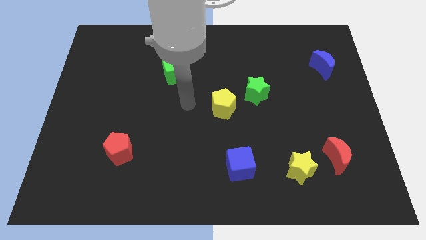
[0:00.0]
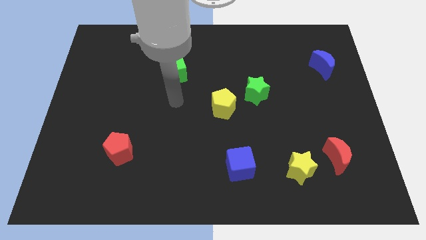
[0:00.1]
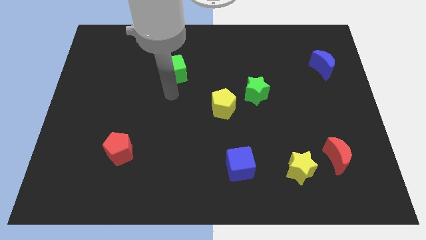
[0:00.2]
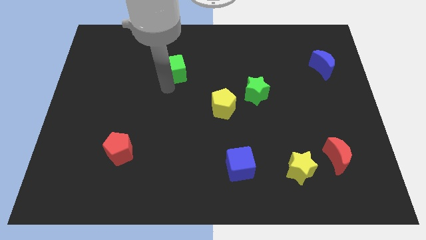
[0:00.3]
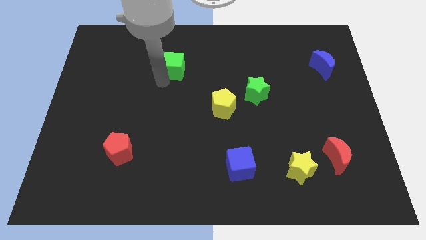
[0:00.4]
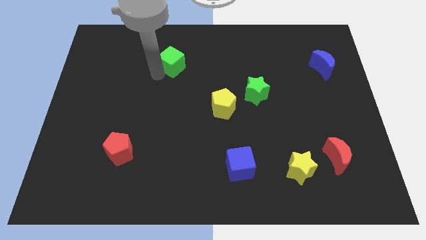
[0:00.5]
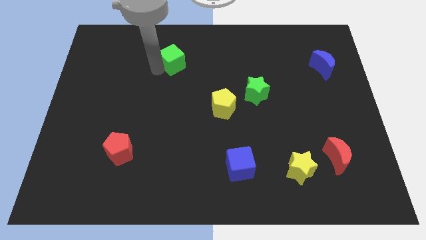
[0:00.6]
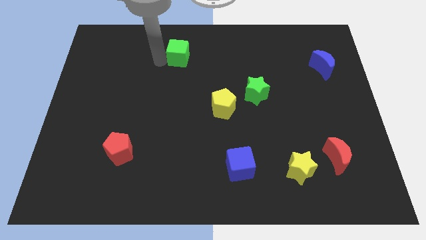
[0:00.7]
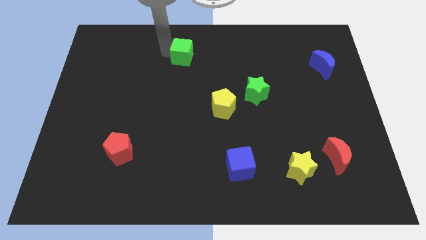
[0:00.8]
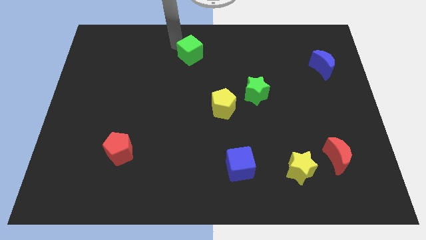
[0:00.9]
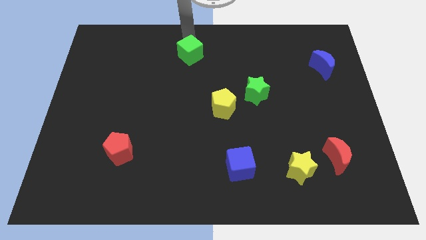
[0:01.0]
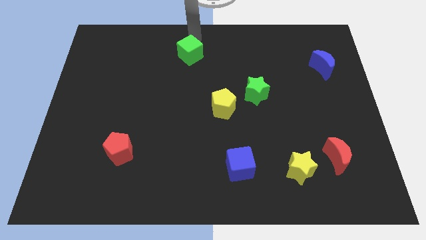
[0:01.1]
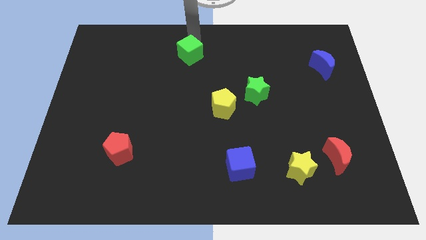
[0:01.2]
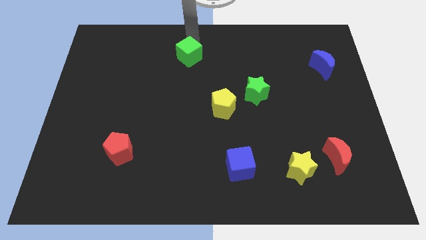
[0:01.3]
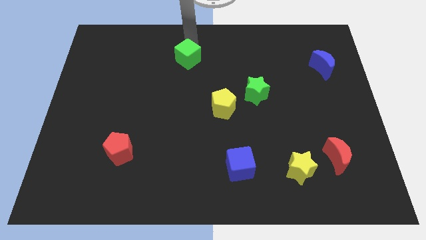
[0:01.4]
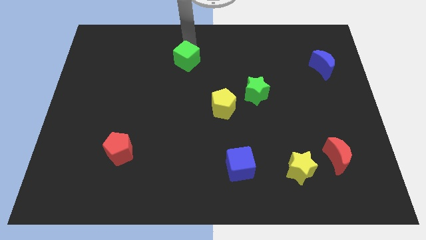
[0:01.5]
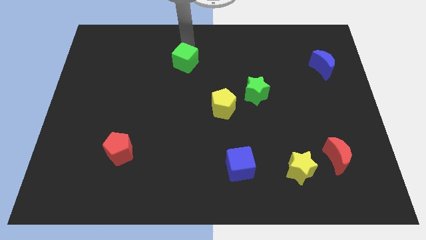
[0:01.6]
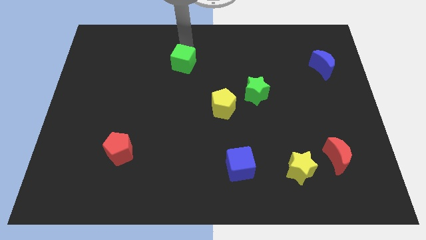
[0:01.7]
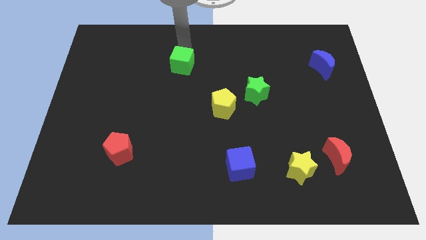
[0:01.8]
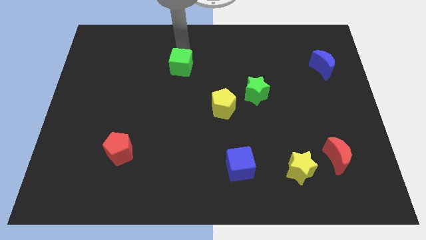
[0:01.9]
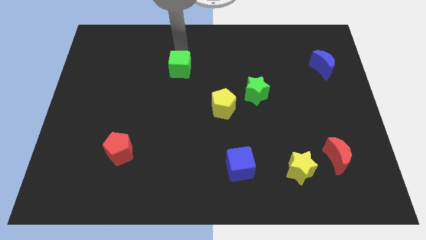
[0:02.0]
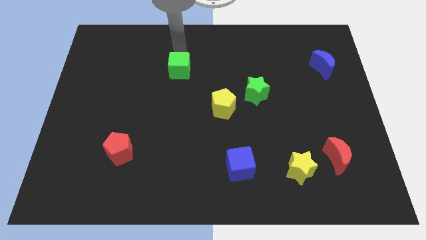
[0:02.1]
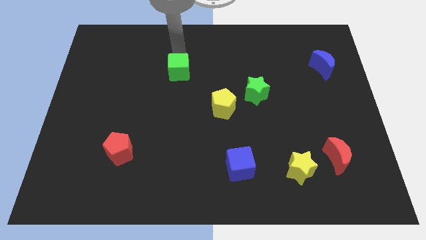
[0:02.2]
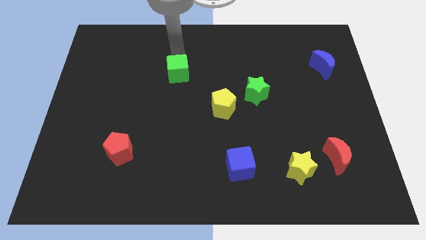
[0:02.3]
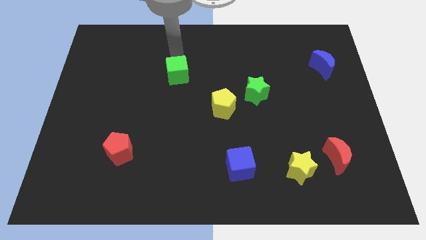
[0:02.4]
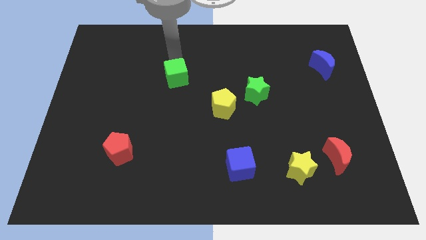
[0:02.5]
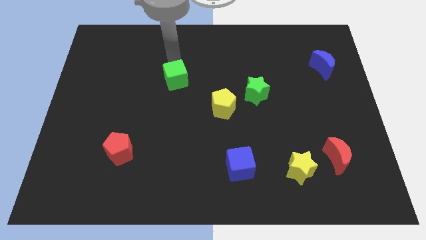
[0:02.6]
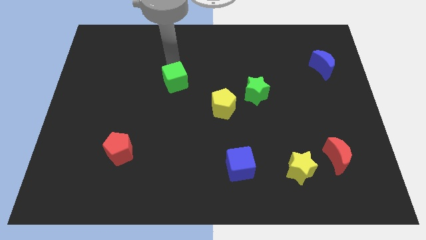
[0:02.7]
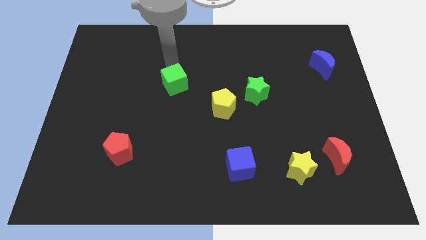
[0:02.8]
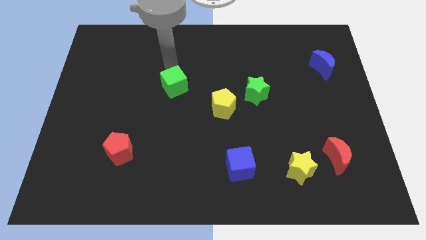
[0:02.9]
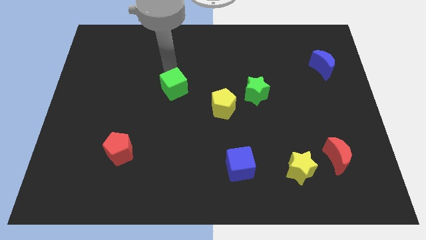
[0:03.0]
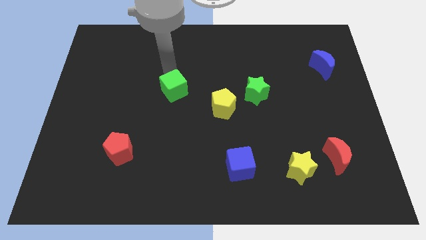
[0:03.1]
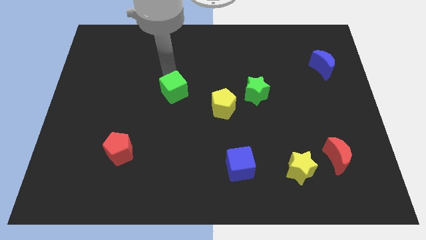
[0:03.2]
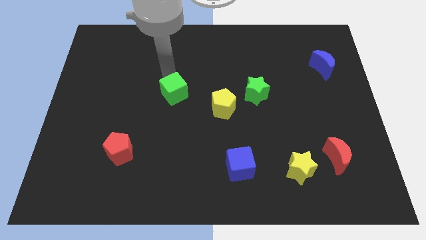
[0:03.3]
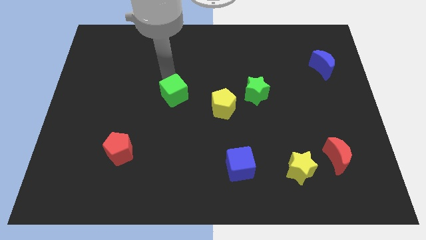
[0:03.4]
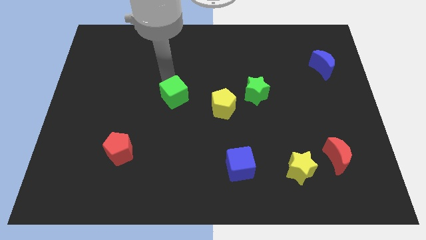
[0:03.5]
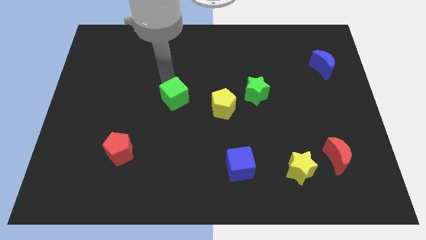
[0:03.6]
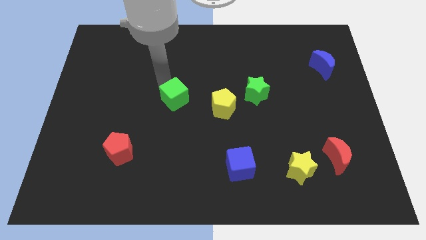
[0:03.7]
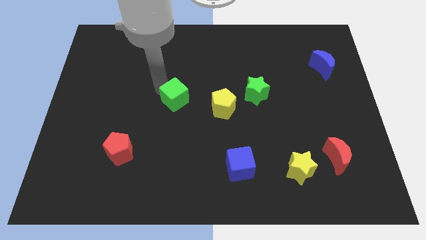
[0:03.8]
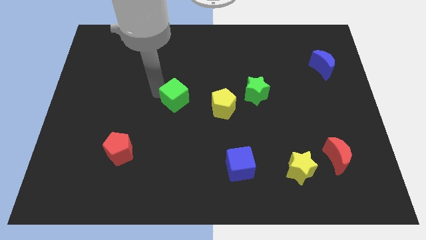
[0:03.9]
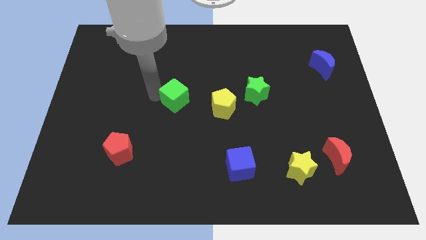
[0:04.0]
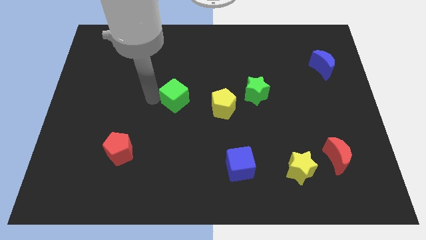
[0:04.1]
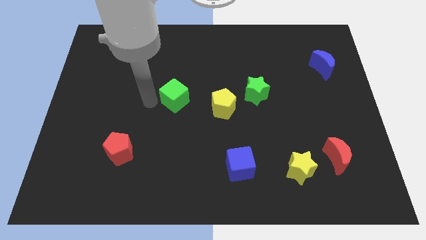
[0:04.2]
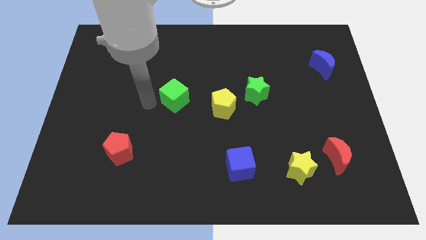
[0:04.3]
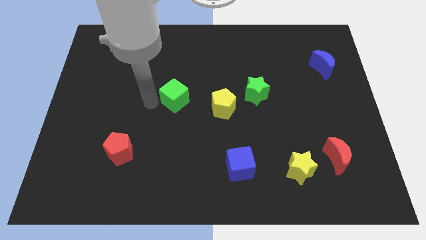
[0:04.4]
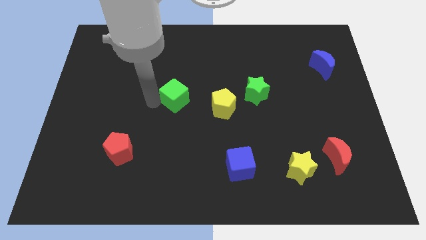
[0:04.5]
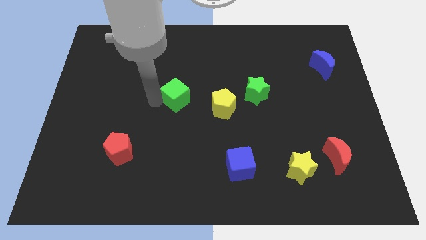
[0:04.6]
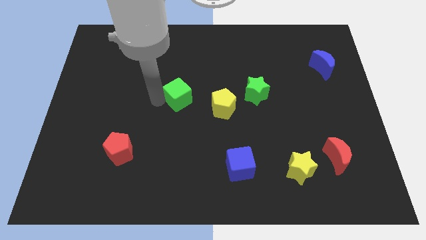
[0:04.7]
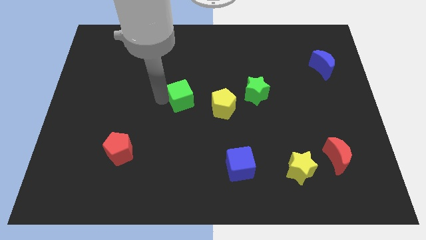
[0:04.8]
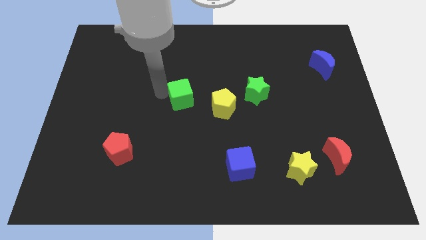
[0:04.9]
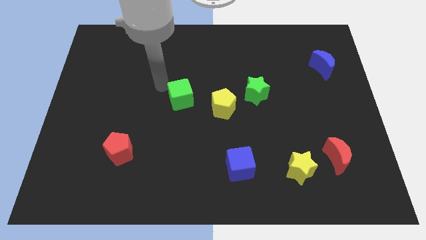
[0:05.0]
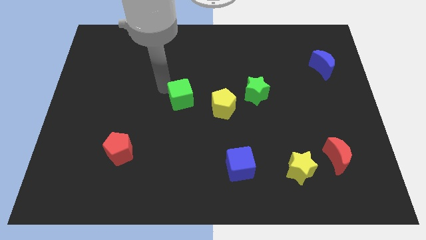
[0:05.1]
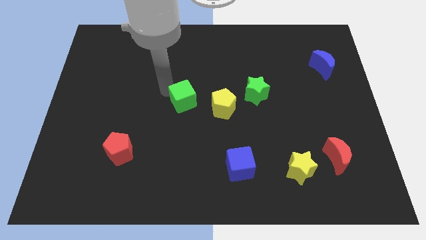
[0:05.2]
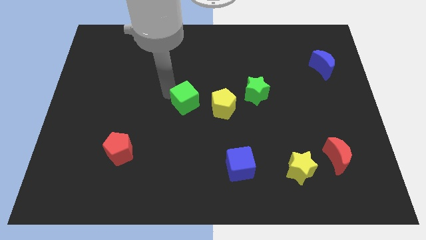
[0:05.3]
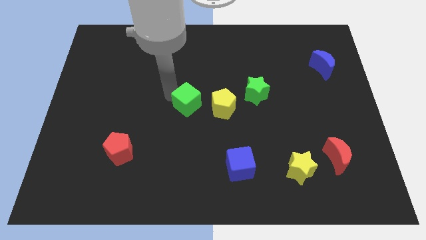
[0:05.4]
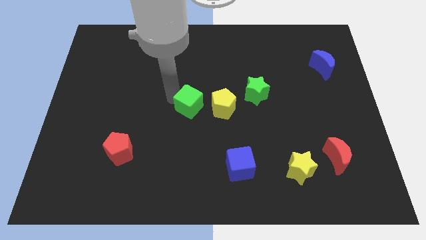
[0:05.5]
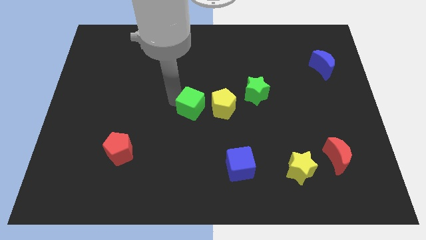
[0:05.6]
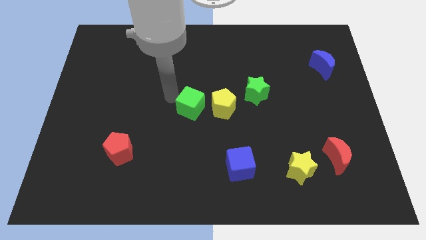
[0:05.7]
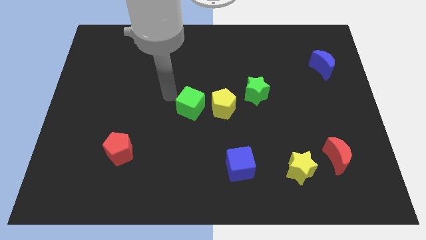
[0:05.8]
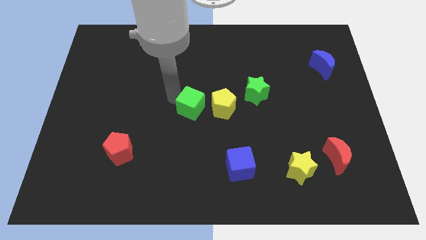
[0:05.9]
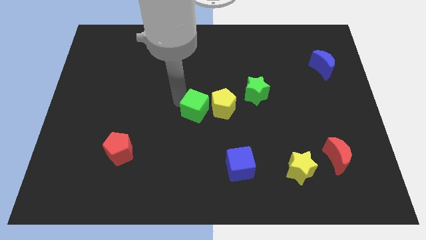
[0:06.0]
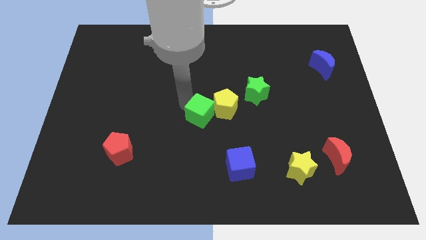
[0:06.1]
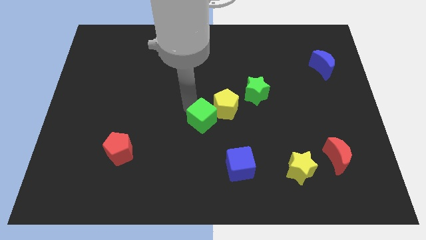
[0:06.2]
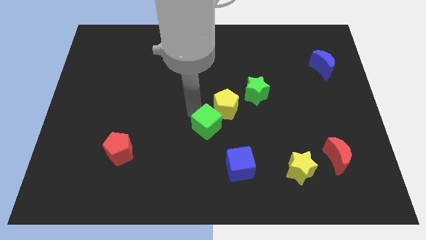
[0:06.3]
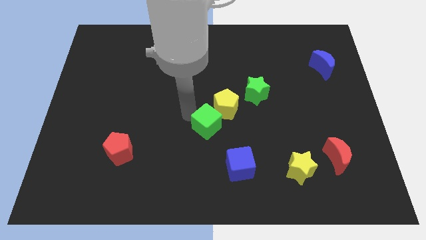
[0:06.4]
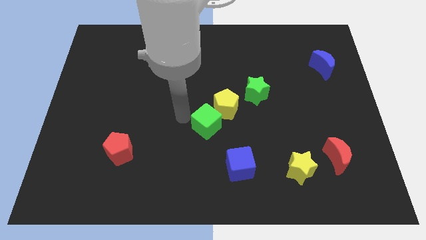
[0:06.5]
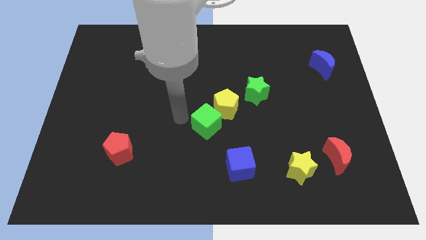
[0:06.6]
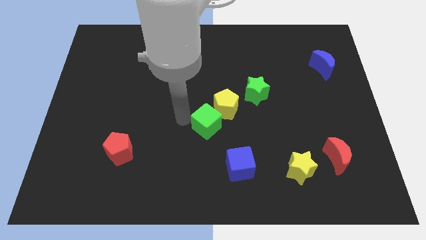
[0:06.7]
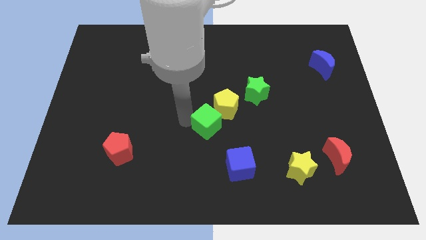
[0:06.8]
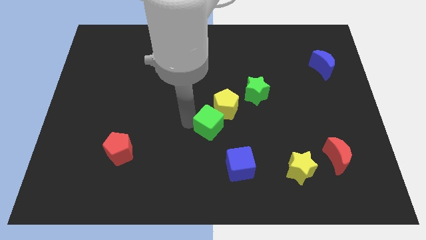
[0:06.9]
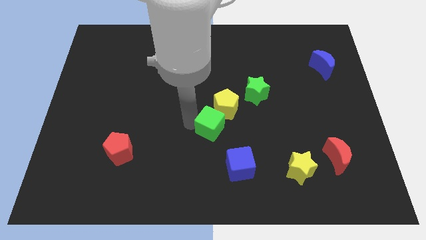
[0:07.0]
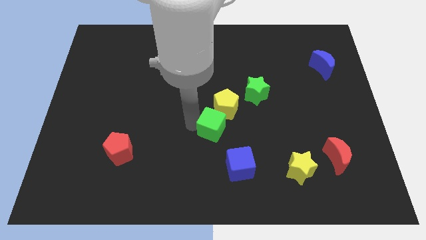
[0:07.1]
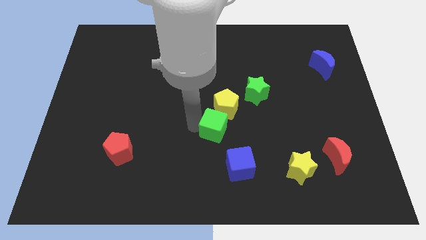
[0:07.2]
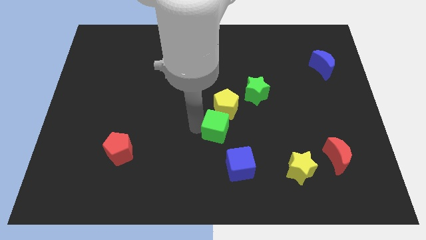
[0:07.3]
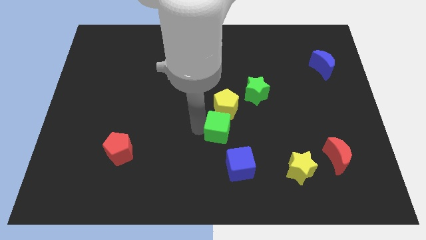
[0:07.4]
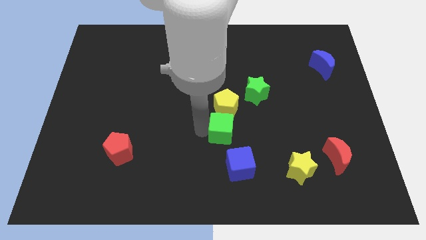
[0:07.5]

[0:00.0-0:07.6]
slide the green cube down and right

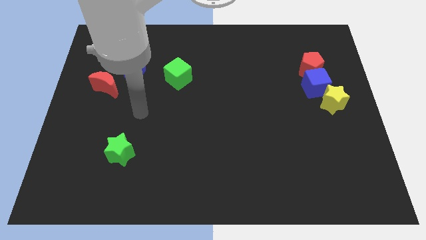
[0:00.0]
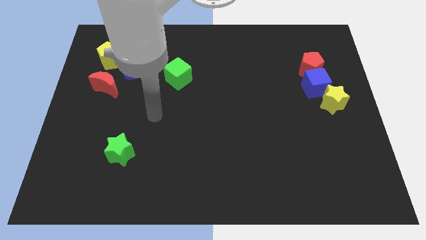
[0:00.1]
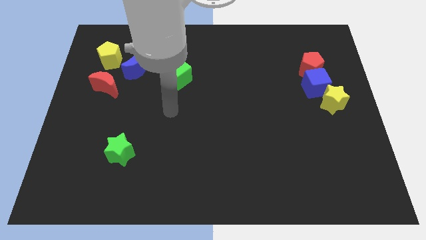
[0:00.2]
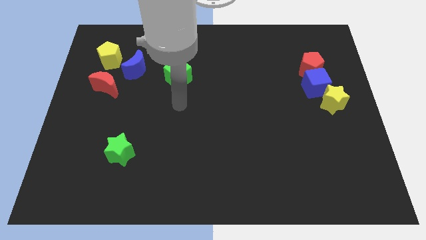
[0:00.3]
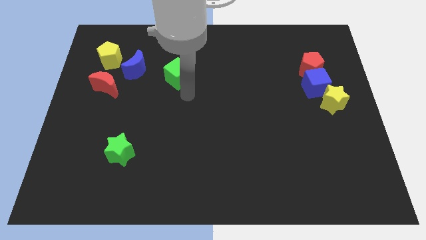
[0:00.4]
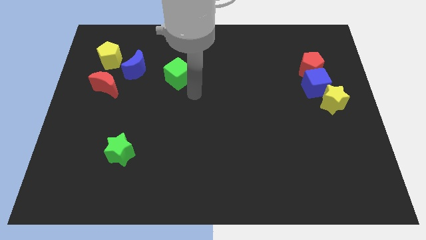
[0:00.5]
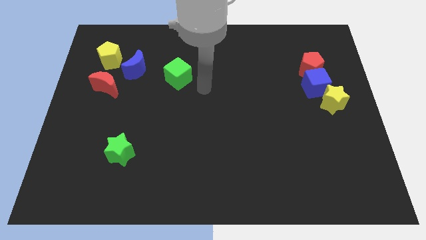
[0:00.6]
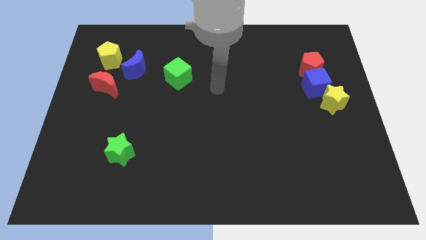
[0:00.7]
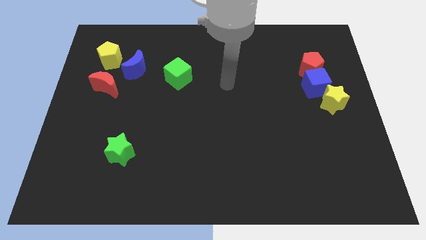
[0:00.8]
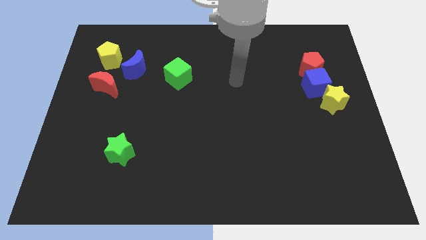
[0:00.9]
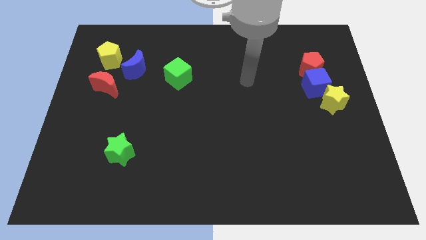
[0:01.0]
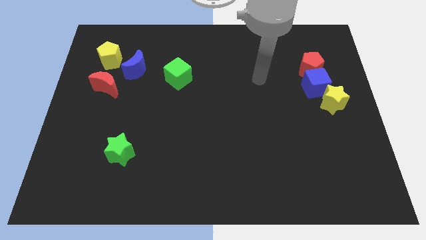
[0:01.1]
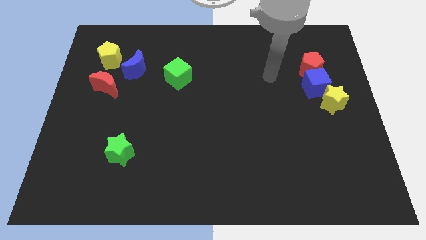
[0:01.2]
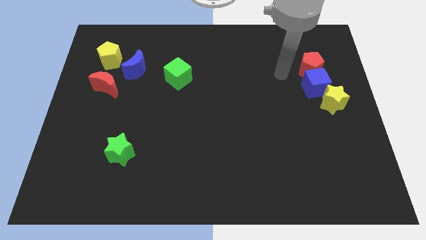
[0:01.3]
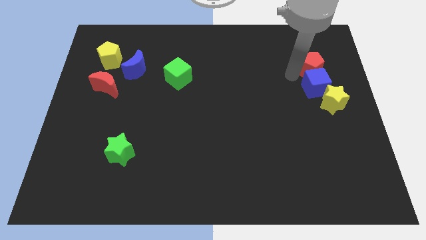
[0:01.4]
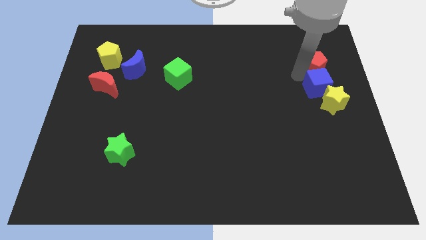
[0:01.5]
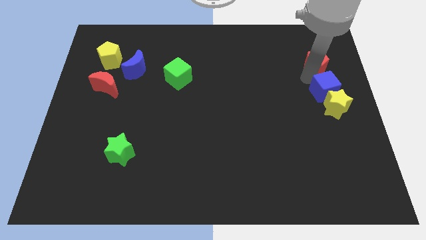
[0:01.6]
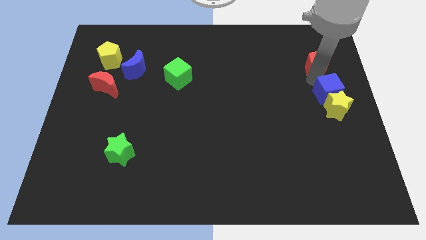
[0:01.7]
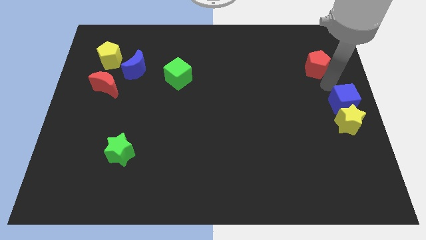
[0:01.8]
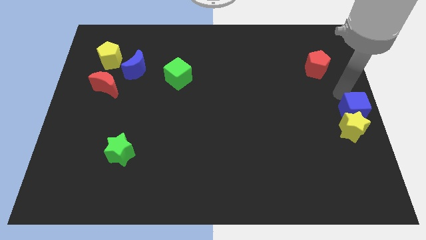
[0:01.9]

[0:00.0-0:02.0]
push the yellow star down a bit
